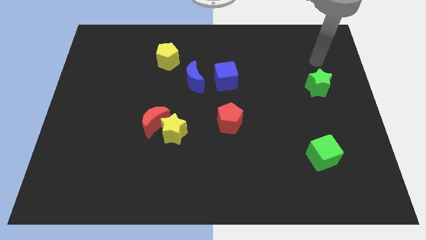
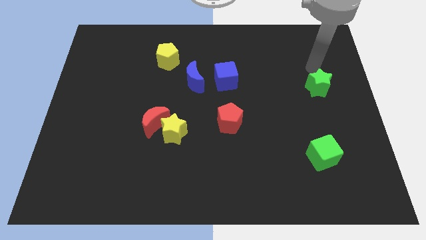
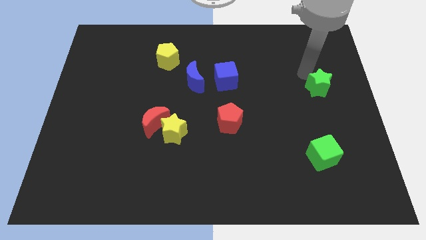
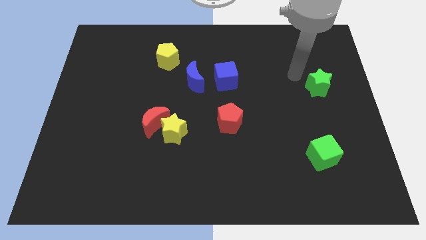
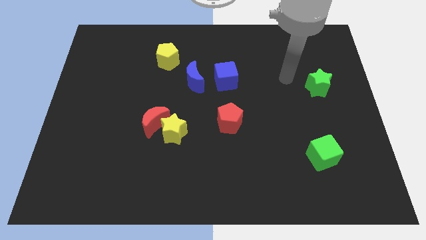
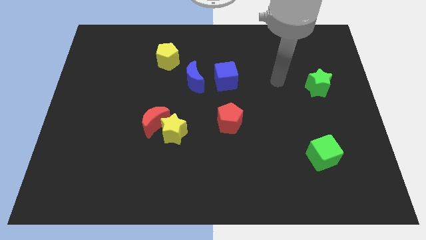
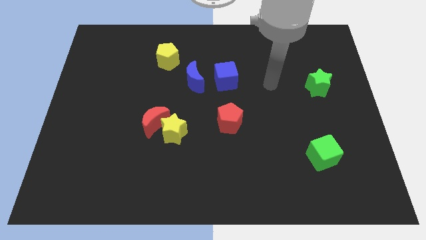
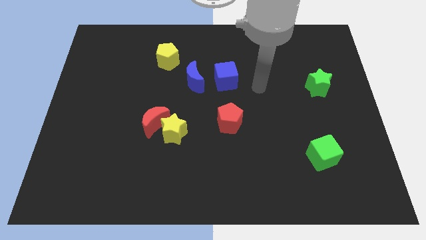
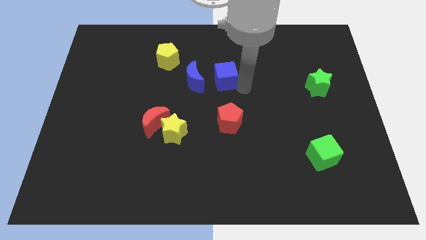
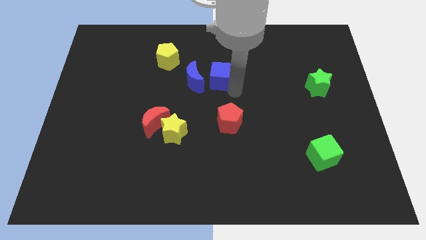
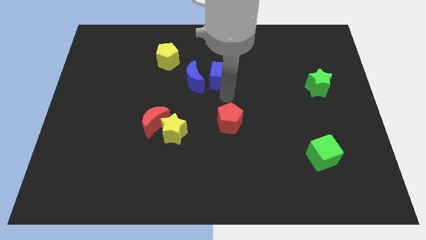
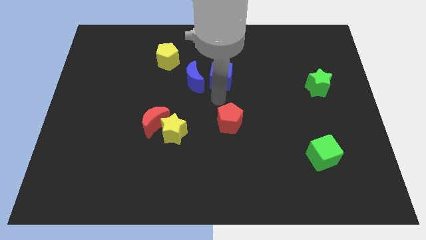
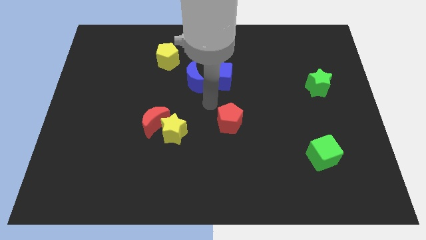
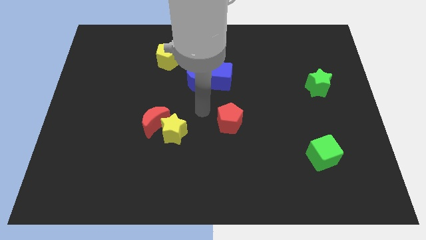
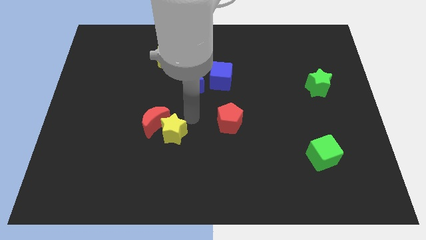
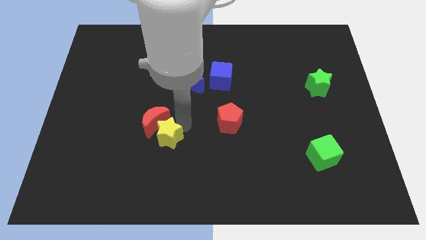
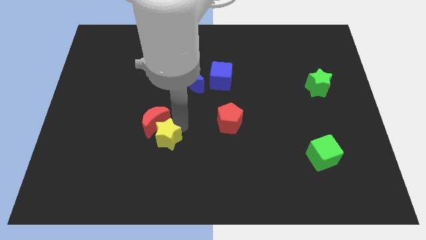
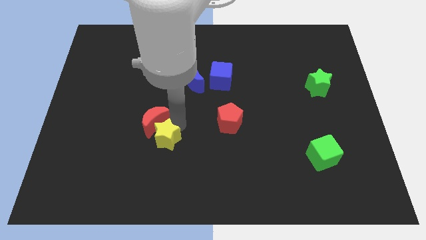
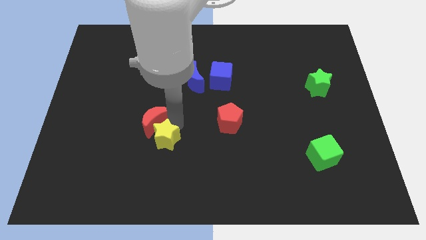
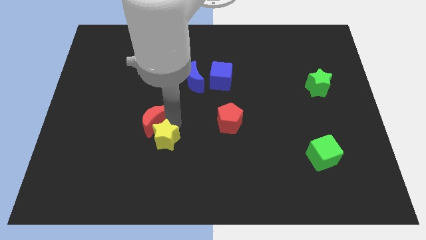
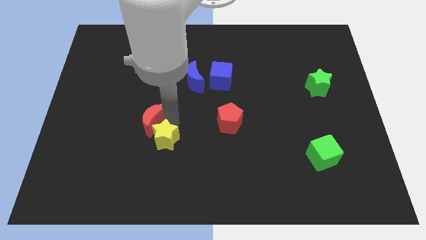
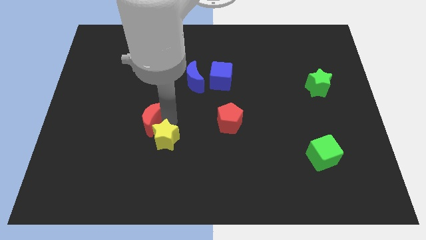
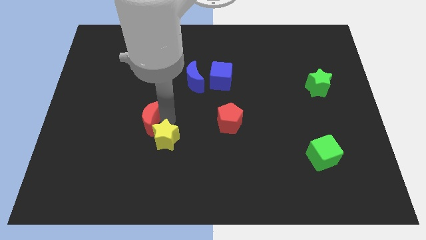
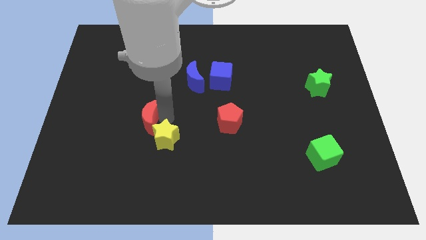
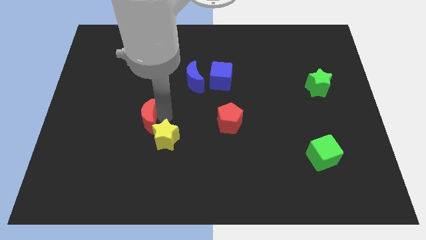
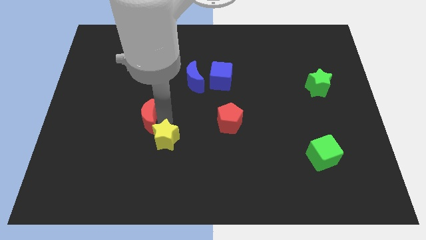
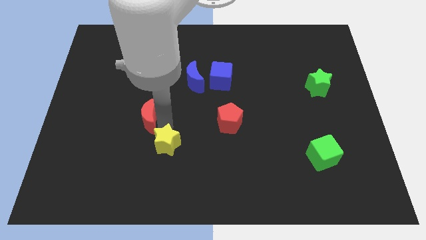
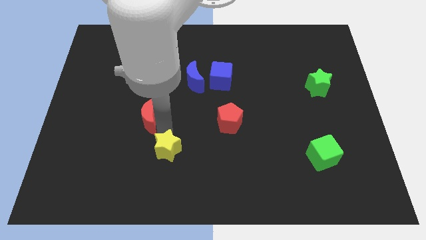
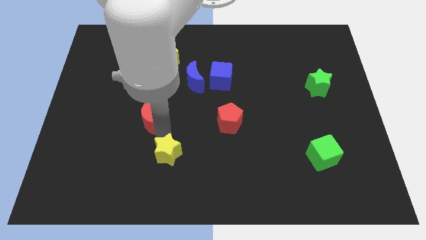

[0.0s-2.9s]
pull the red moon apart from the yellow star

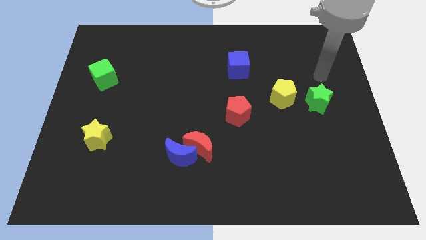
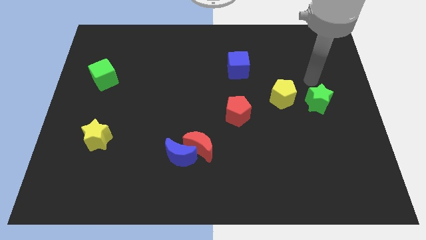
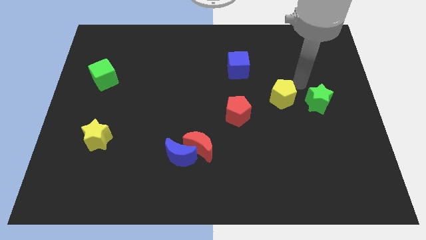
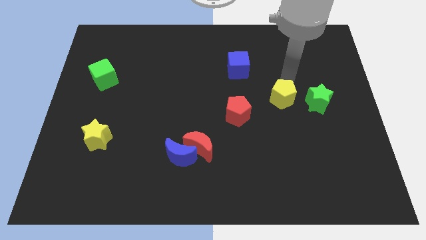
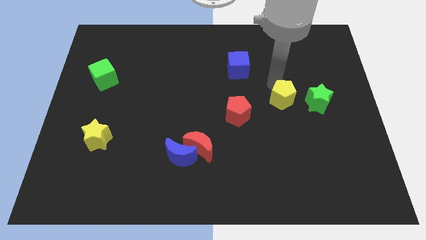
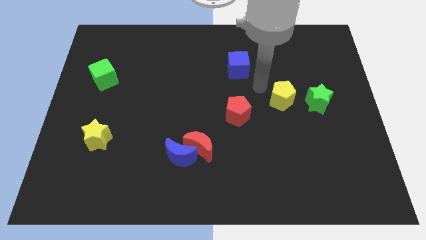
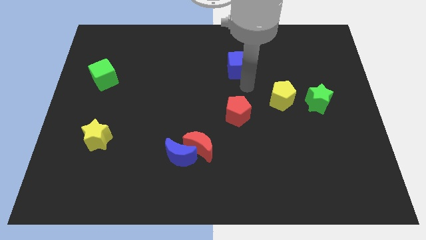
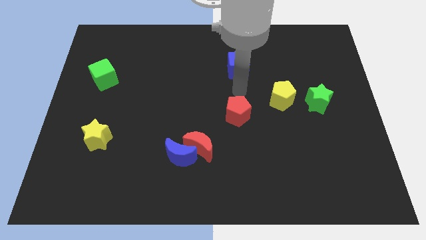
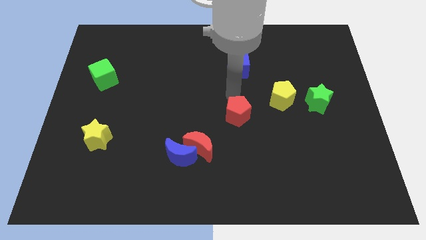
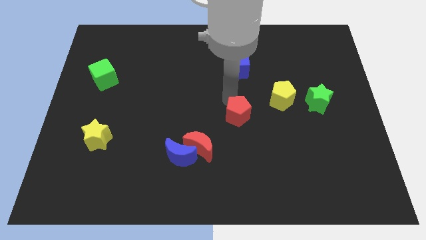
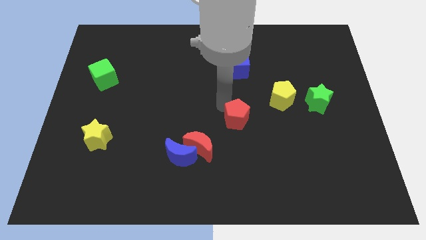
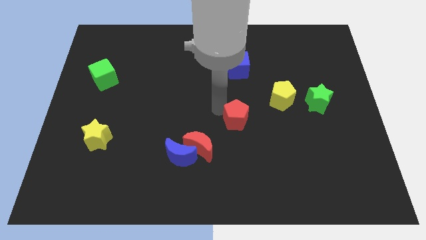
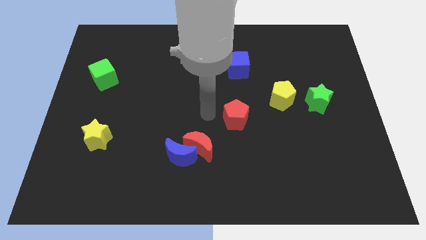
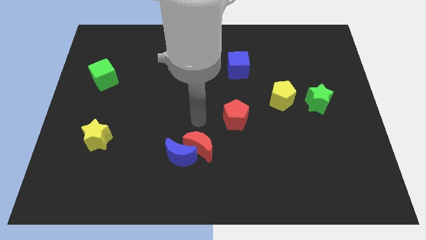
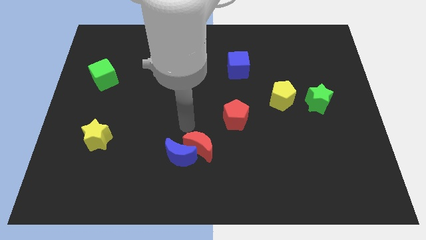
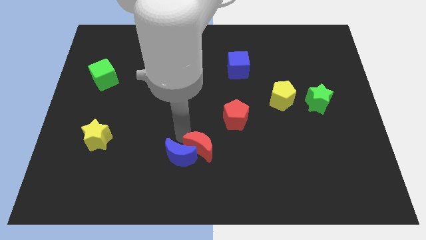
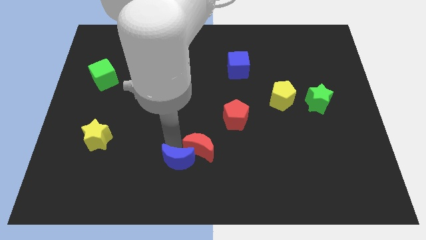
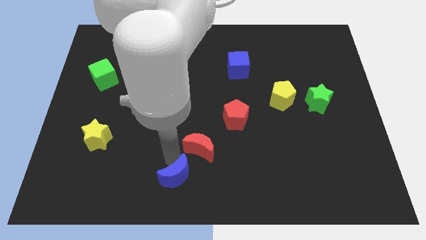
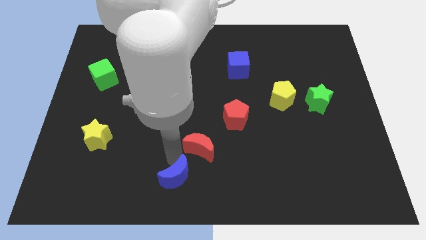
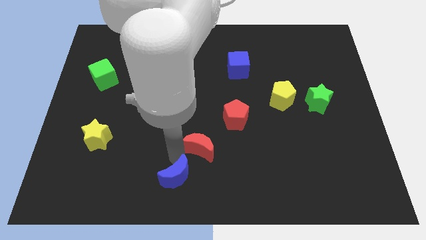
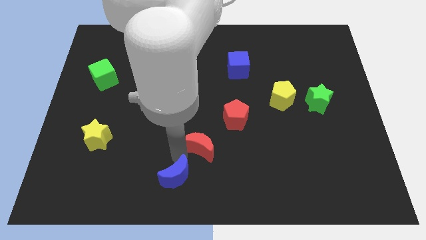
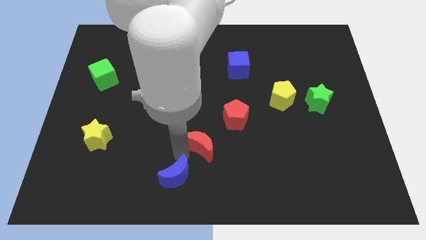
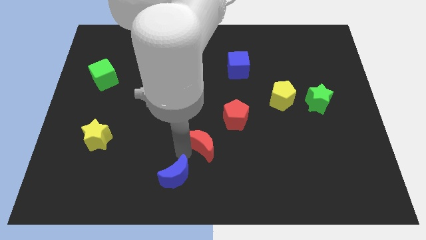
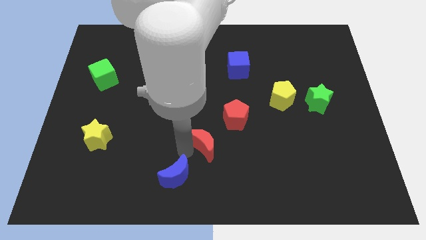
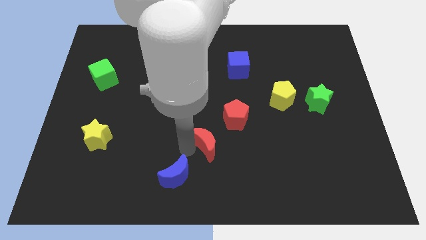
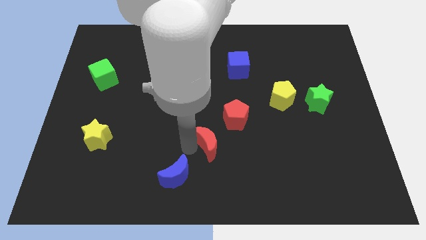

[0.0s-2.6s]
separate the red moon from the blue moon

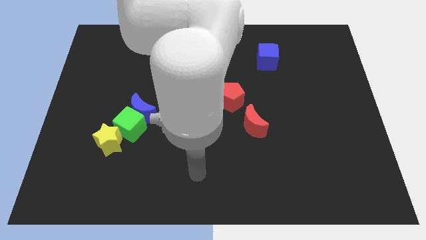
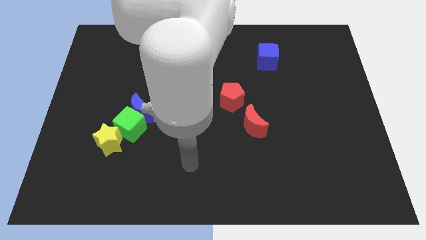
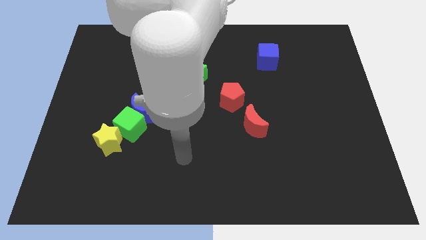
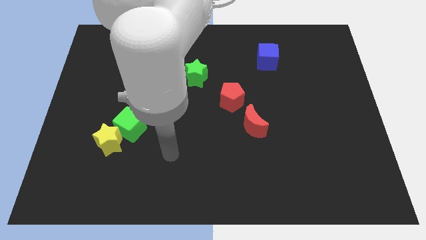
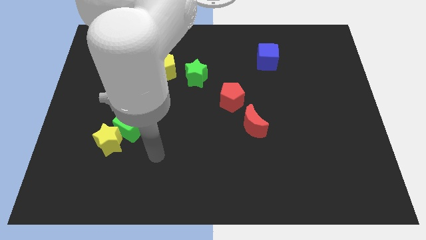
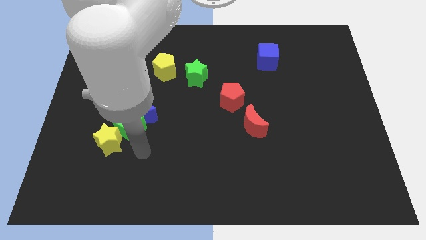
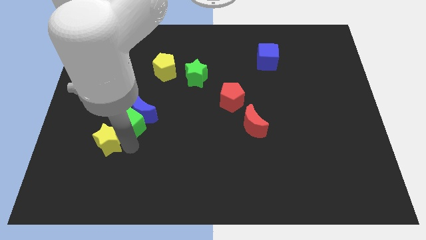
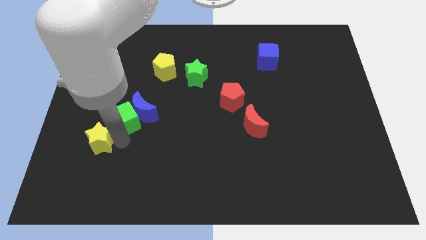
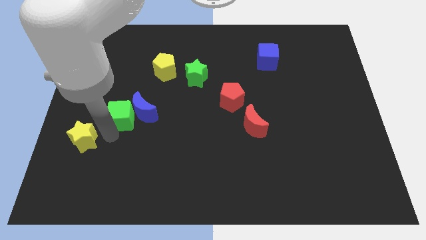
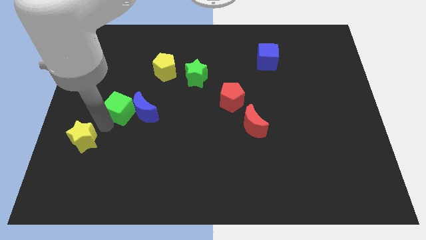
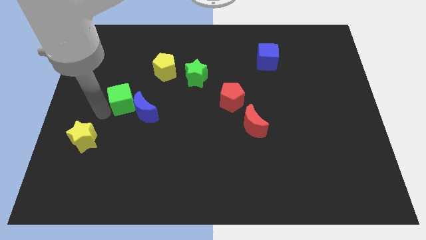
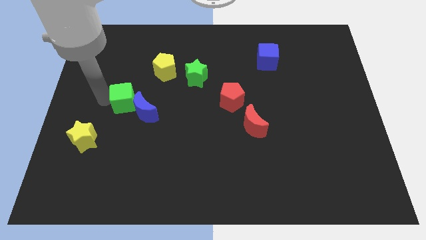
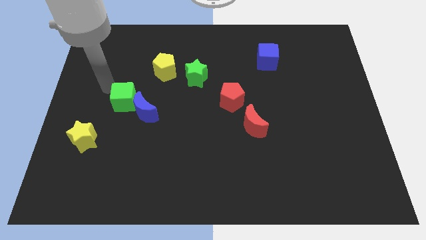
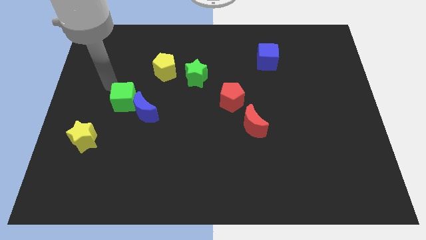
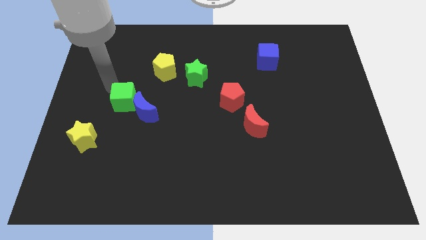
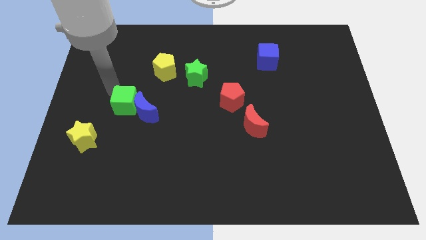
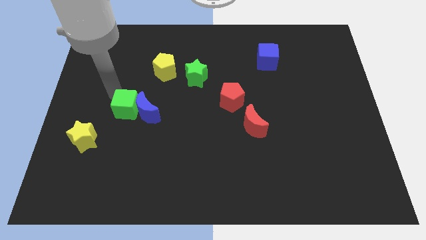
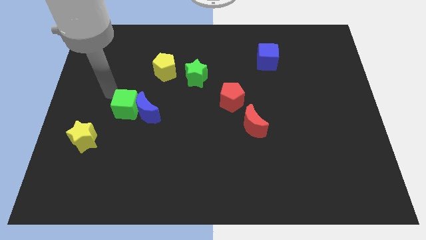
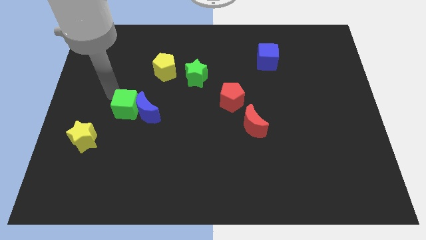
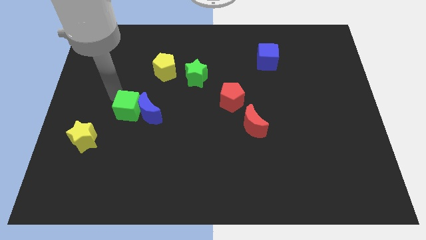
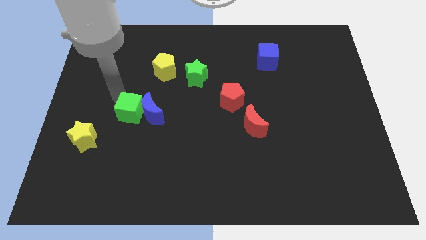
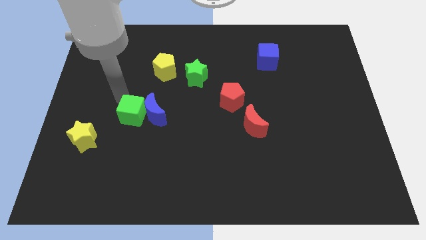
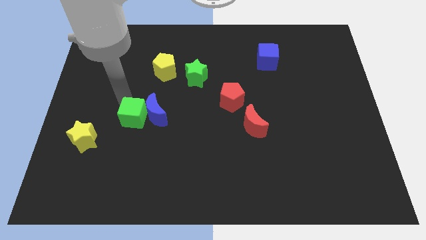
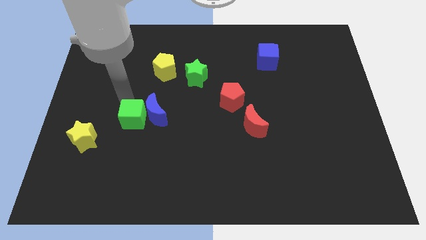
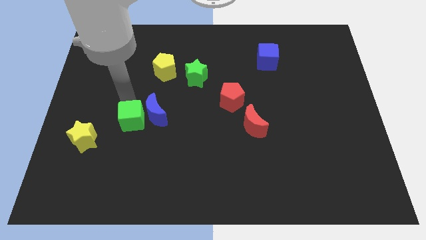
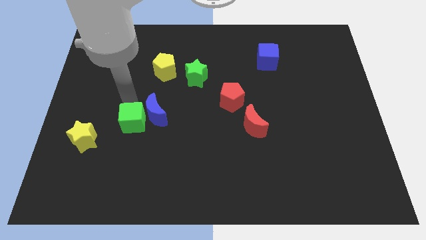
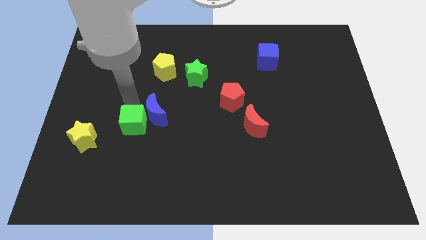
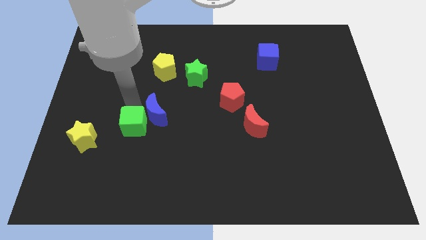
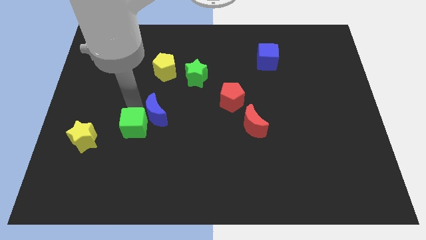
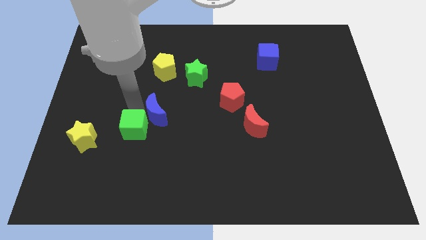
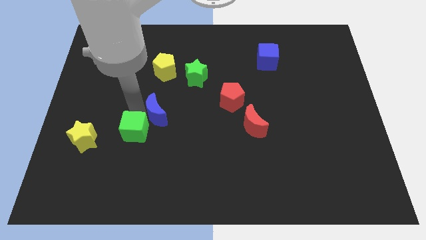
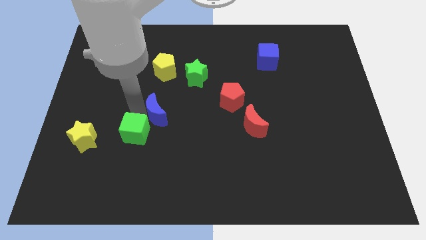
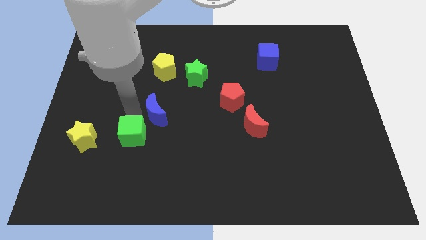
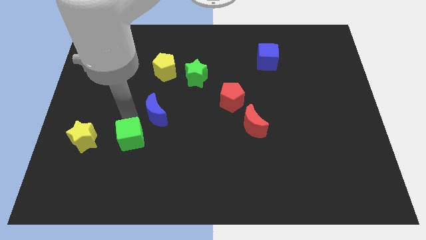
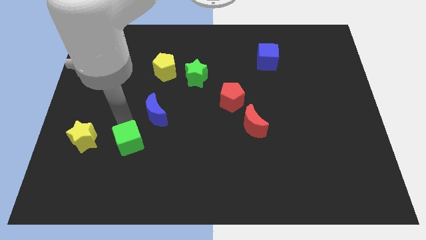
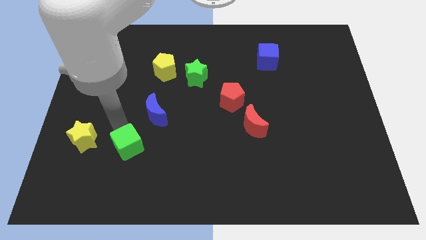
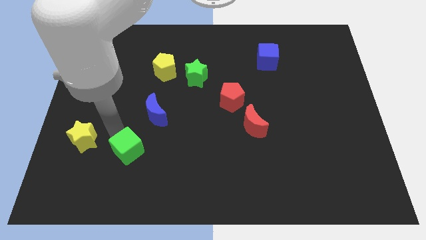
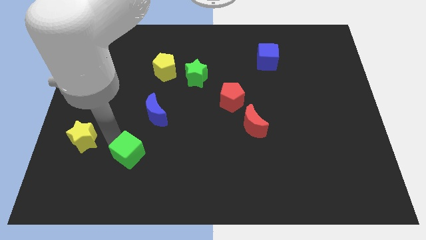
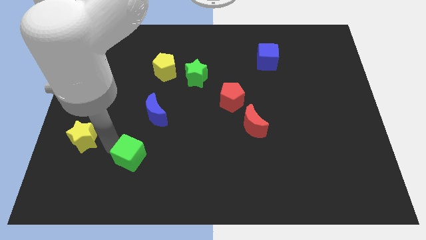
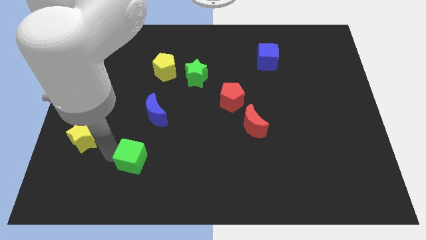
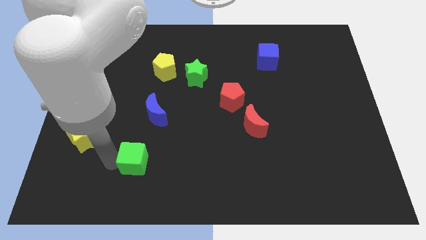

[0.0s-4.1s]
move the green cube away from the blue moon and yellow star

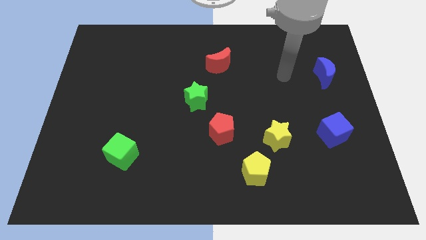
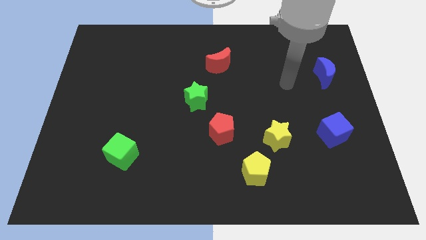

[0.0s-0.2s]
move the yellow star away from the yellow pentagon
